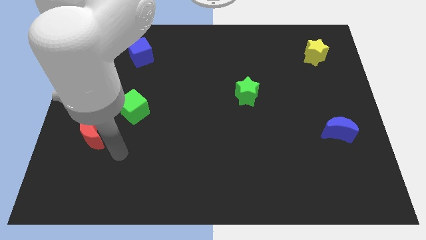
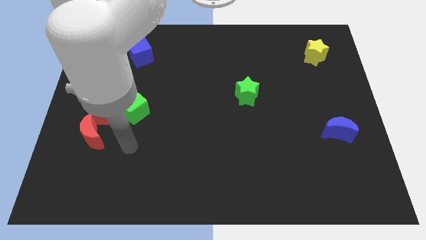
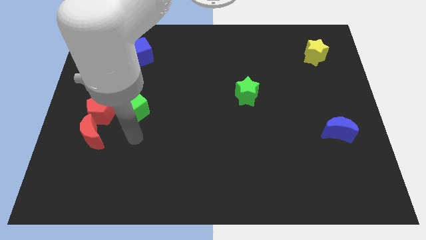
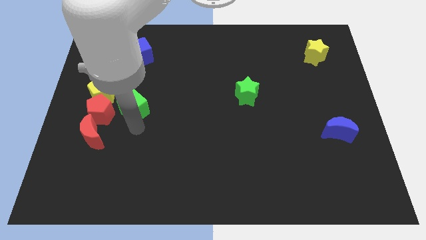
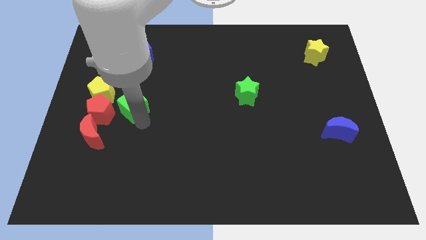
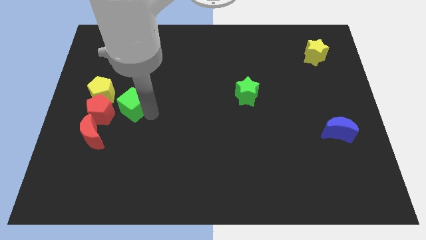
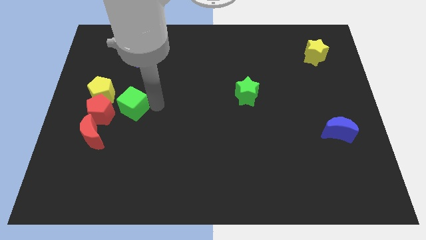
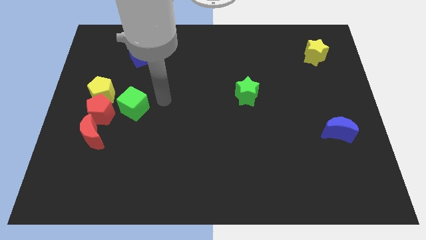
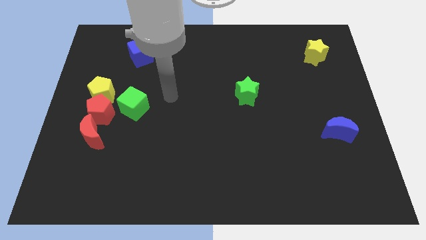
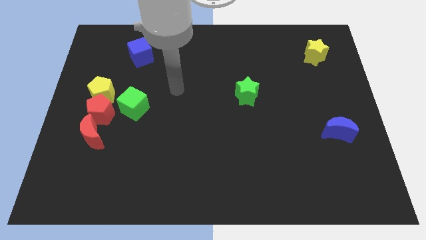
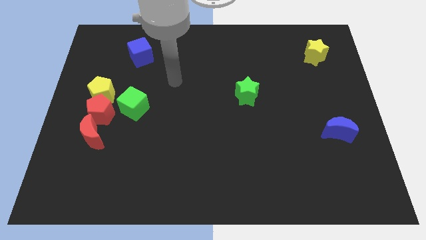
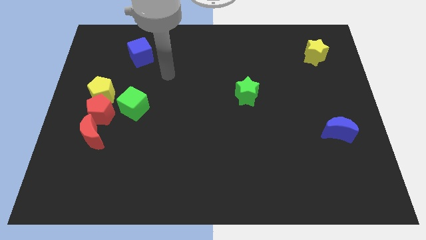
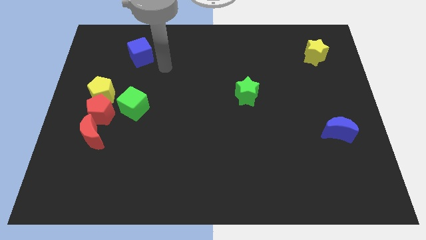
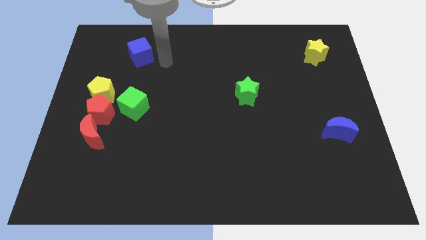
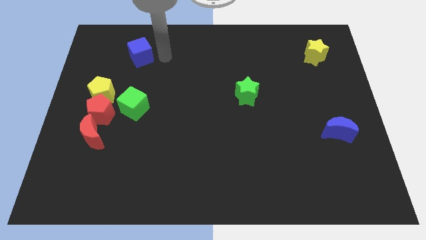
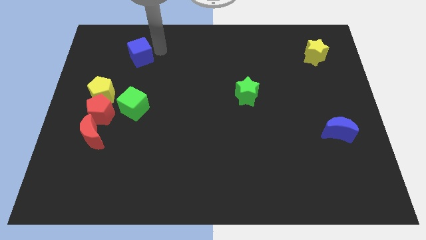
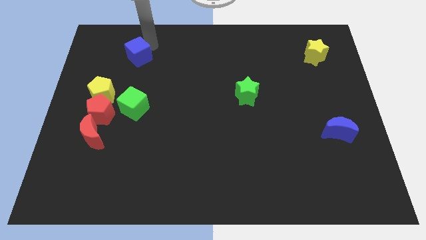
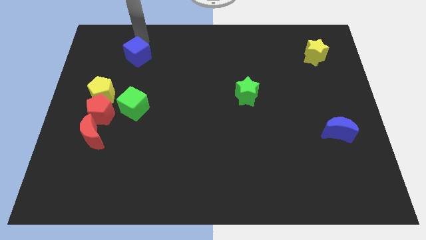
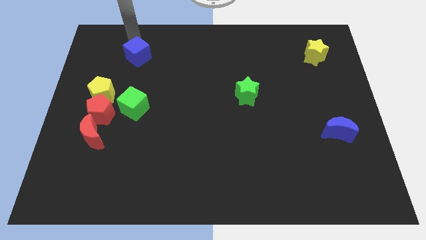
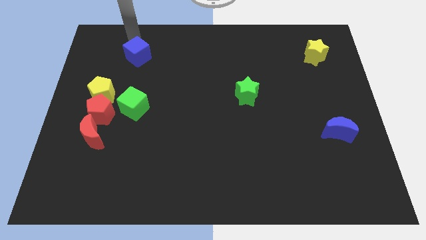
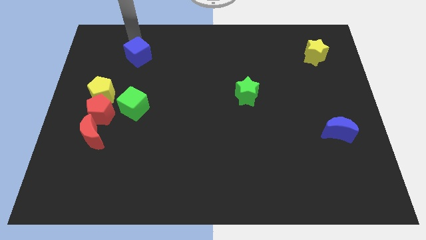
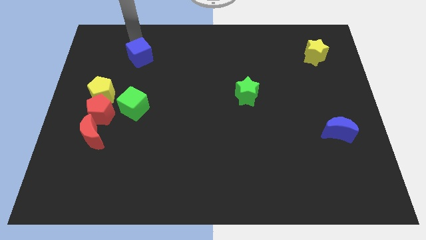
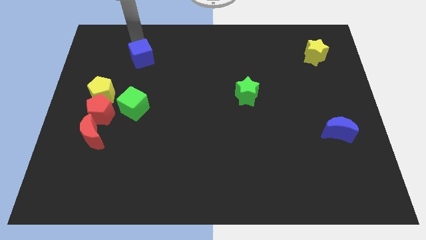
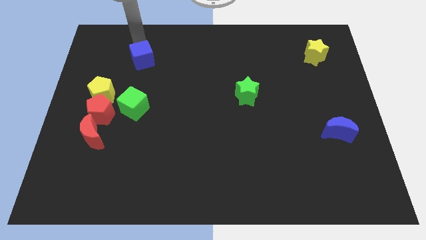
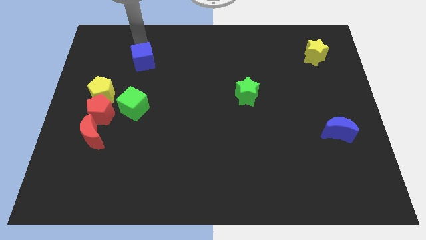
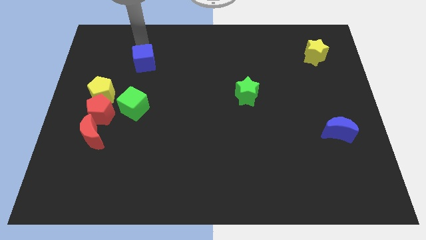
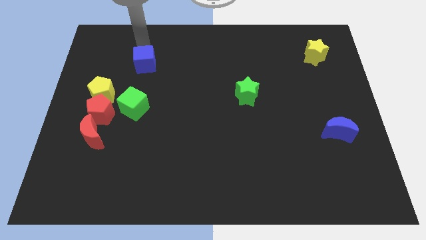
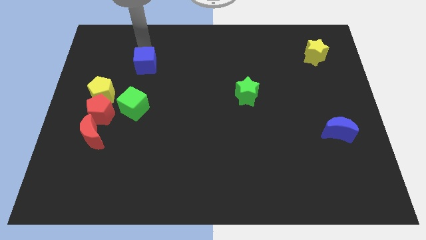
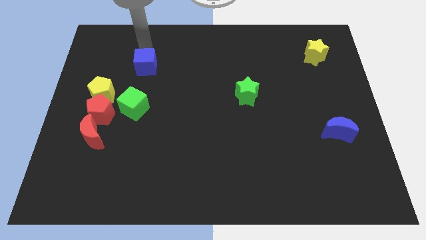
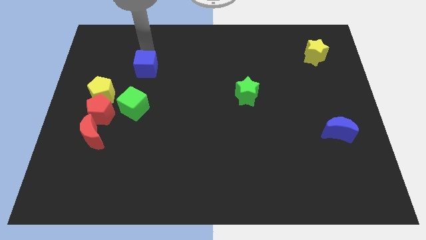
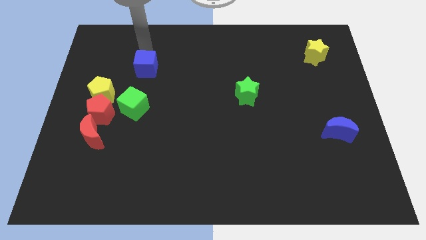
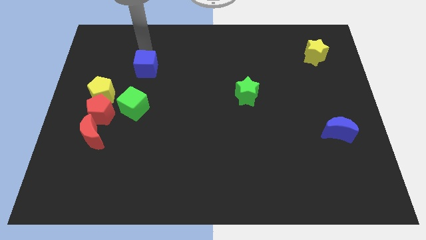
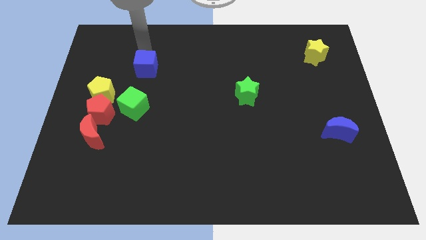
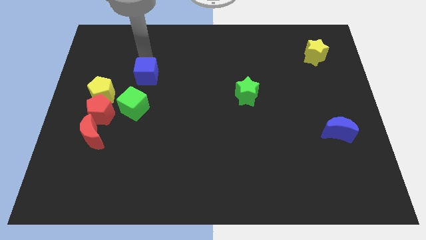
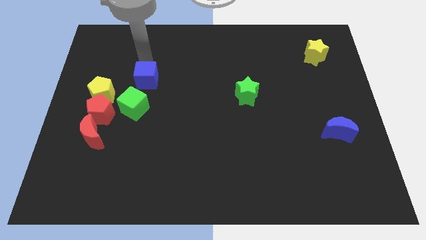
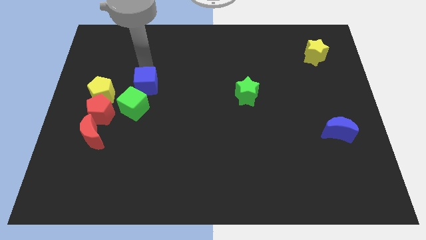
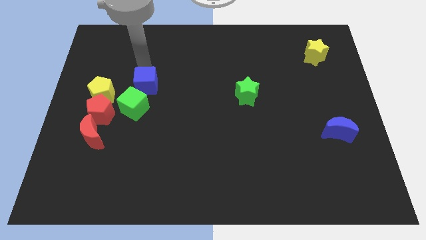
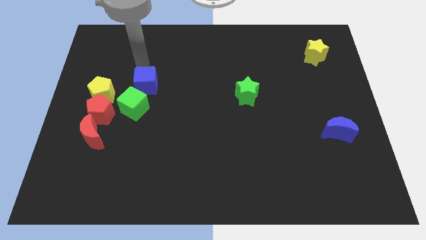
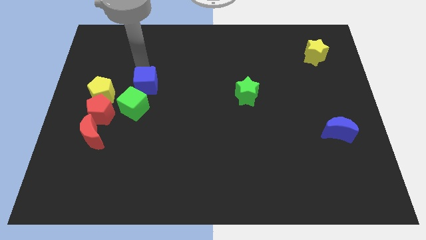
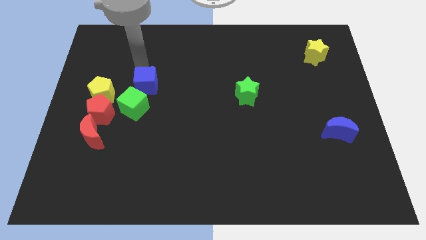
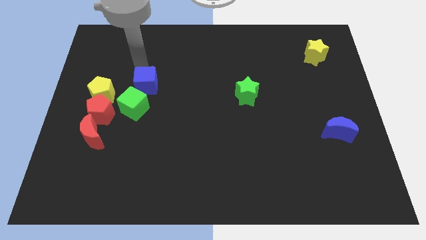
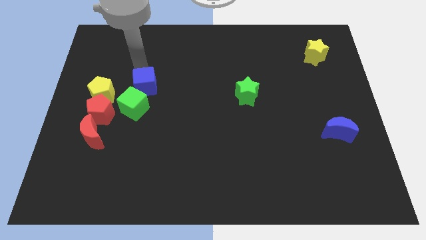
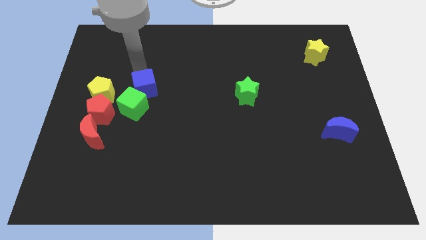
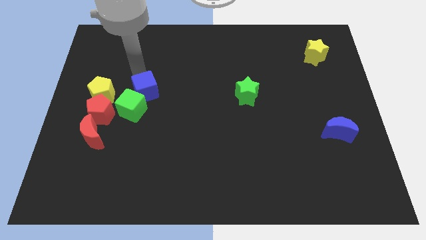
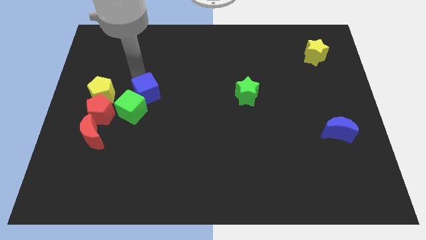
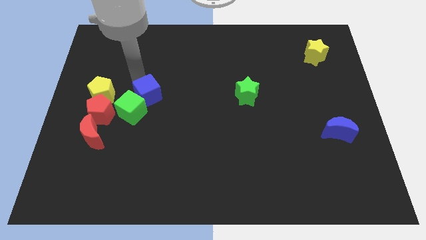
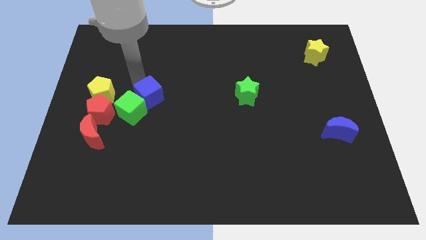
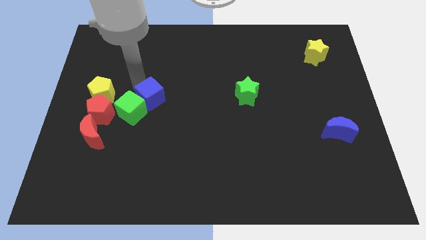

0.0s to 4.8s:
put the blue cube to the right of the red pentagon

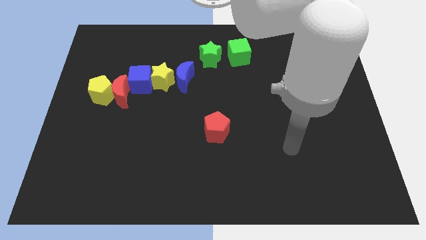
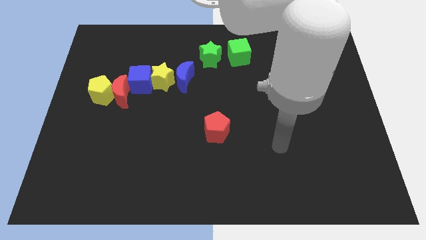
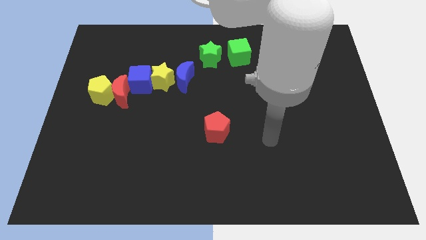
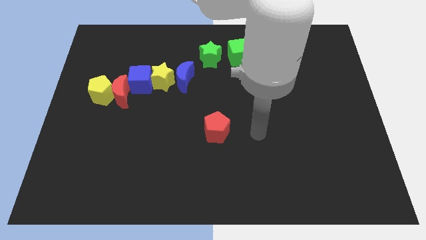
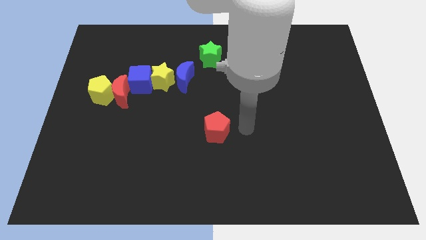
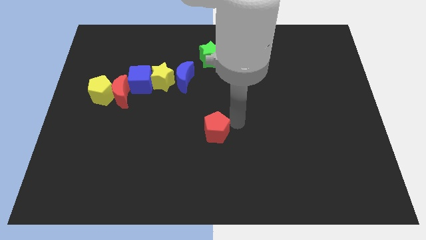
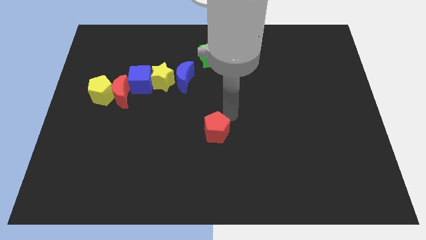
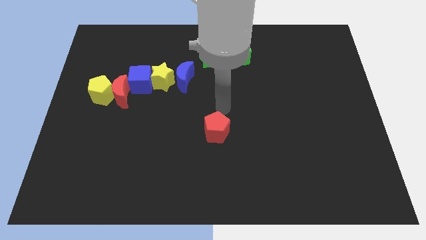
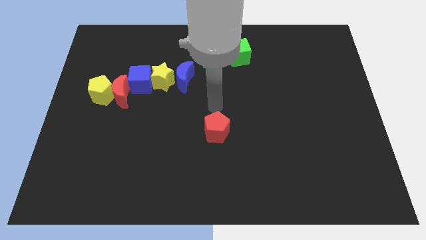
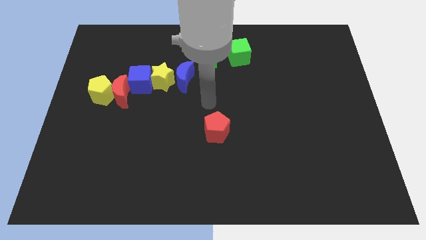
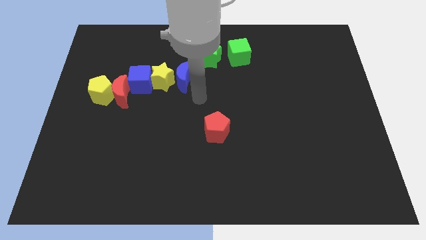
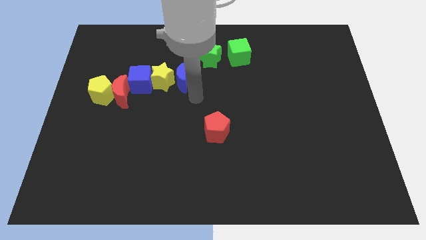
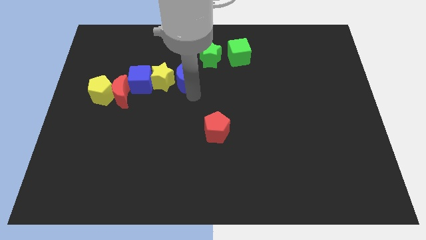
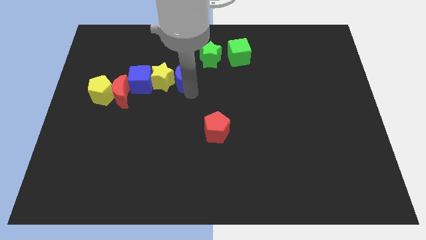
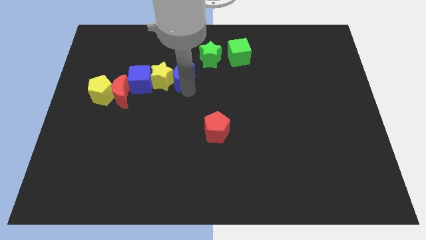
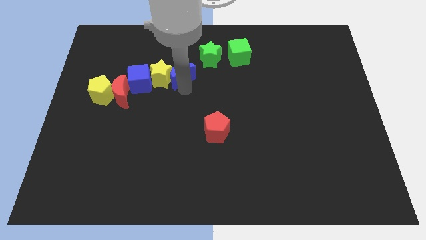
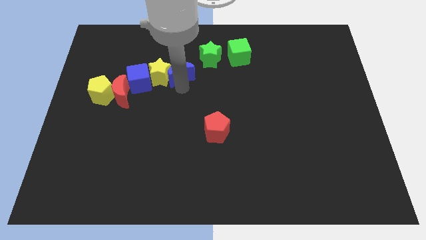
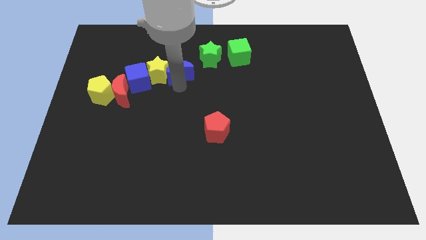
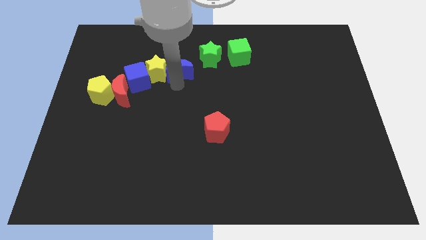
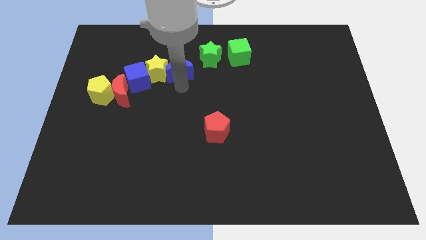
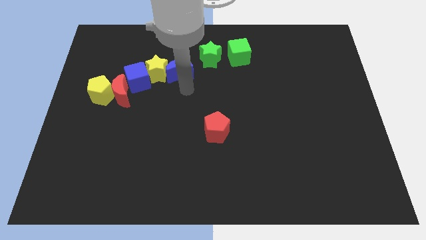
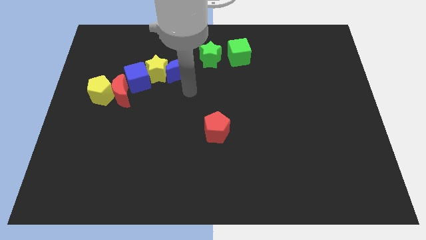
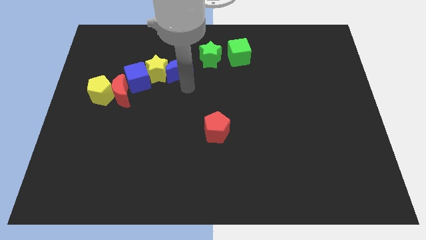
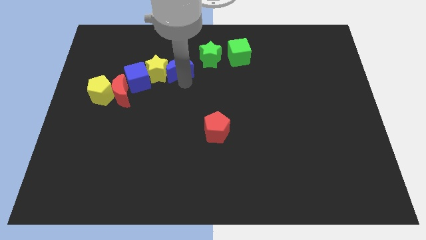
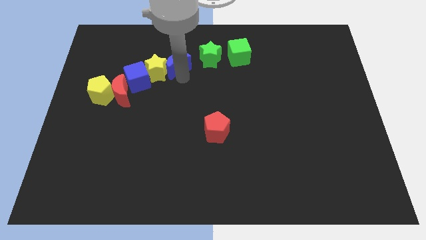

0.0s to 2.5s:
move the blue moon left of the green star
